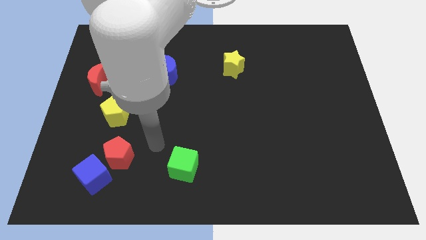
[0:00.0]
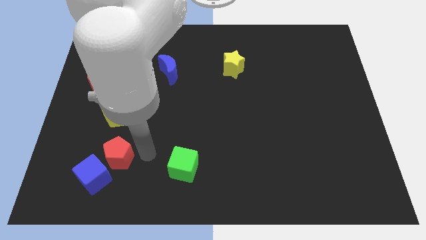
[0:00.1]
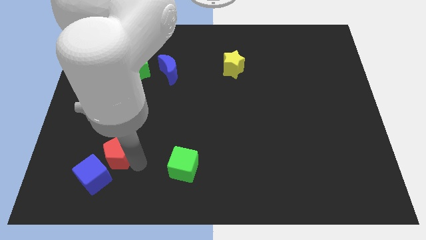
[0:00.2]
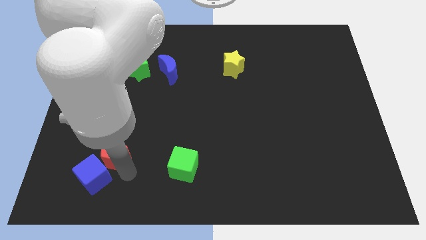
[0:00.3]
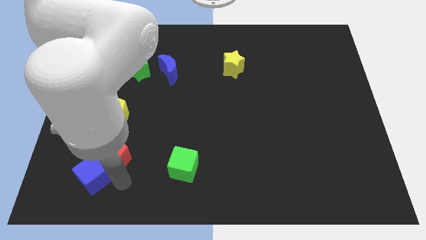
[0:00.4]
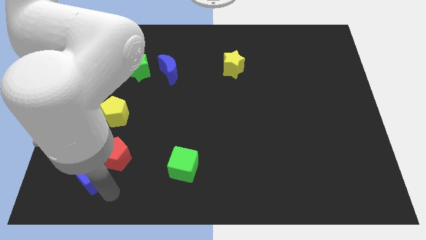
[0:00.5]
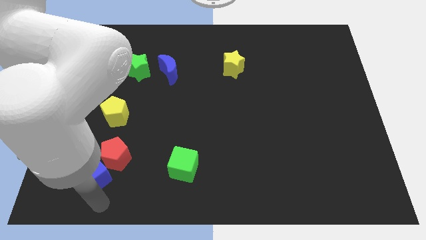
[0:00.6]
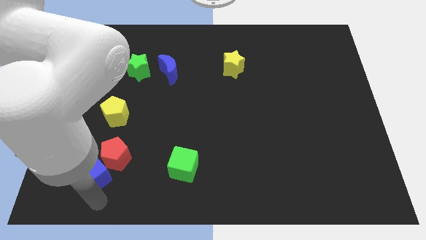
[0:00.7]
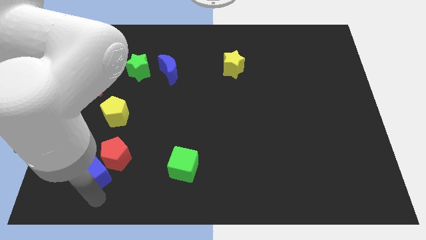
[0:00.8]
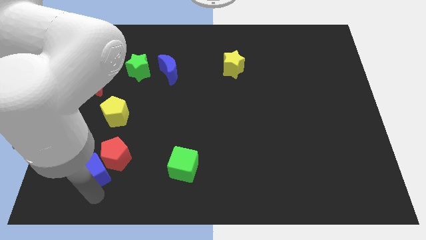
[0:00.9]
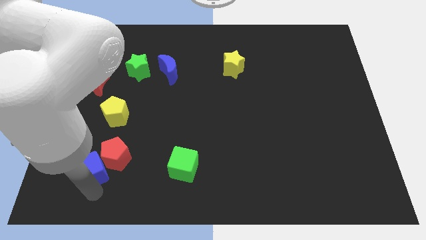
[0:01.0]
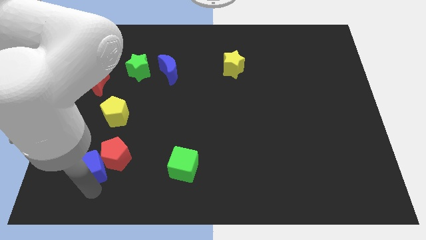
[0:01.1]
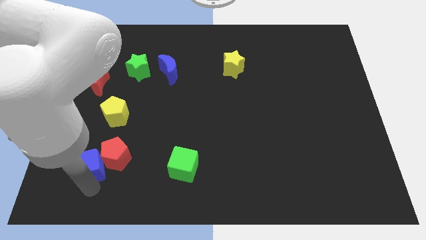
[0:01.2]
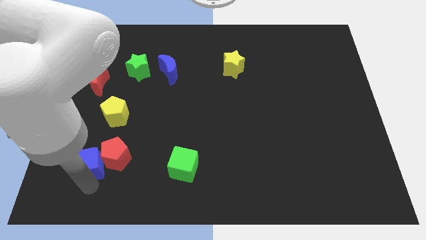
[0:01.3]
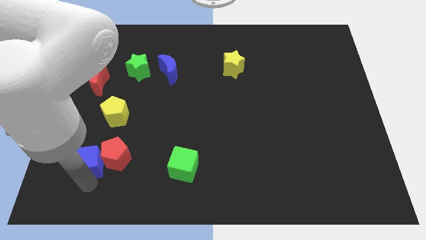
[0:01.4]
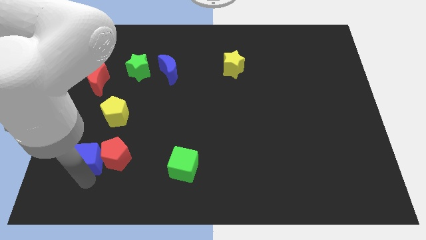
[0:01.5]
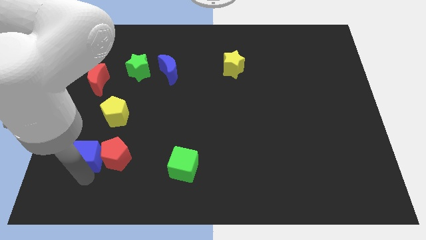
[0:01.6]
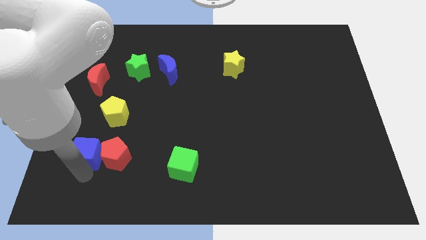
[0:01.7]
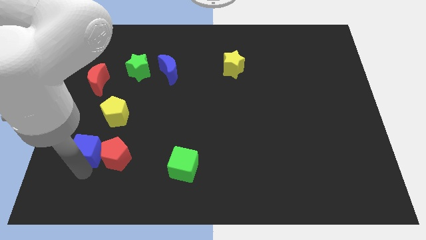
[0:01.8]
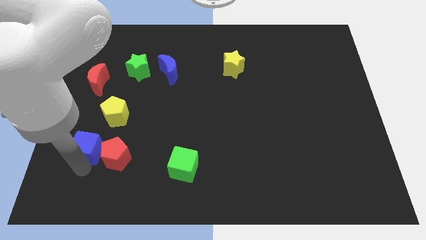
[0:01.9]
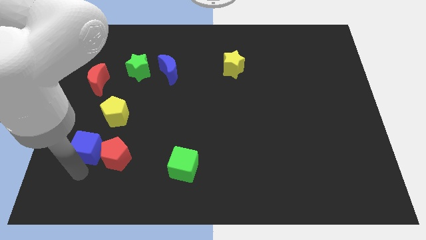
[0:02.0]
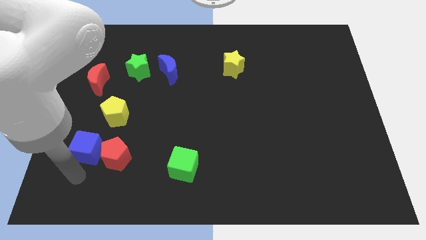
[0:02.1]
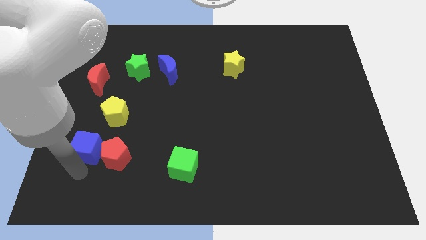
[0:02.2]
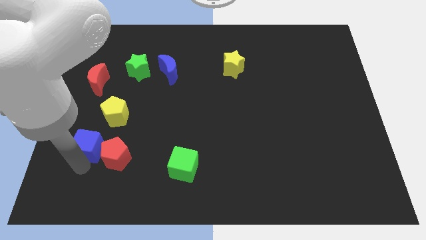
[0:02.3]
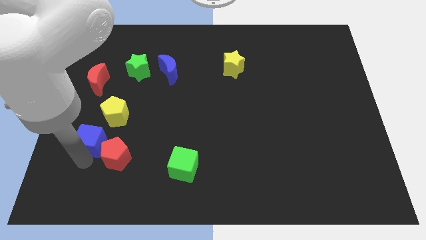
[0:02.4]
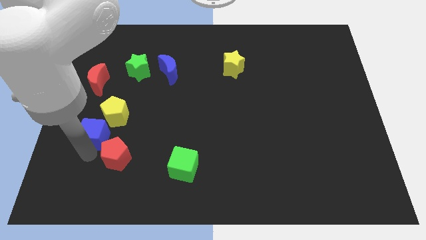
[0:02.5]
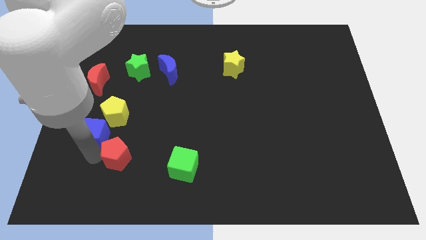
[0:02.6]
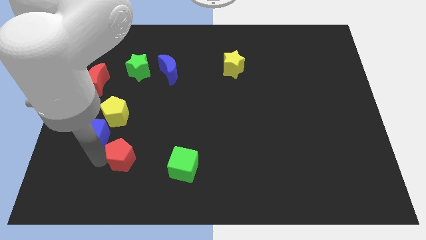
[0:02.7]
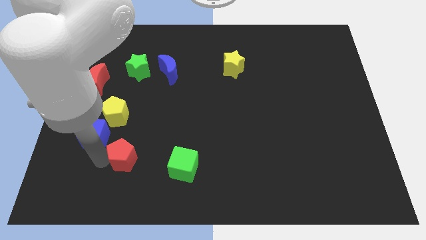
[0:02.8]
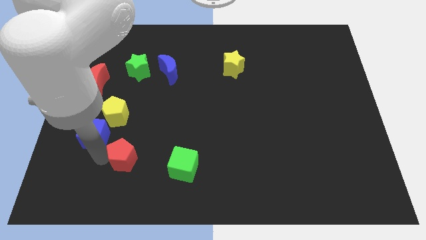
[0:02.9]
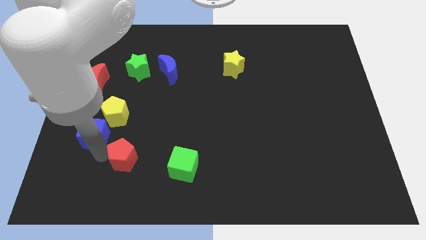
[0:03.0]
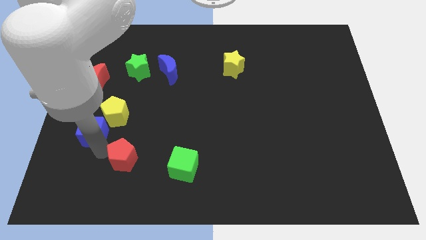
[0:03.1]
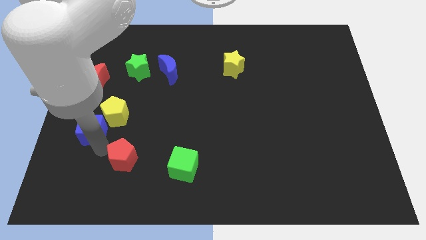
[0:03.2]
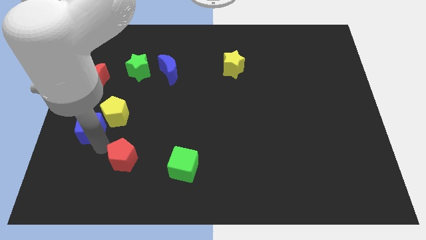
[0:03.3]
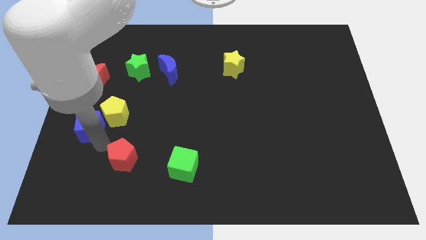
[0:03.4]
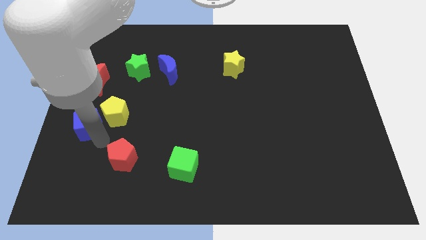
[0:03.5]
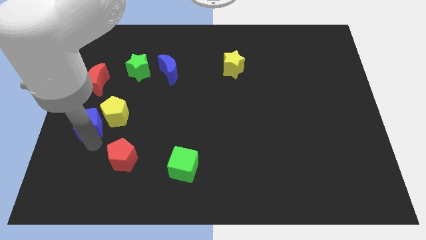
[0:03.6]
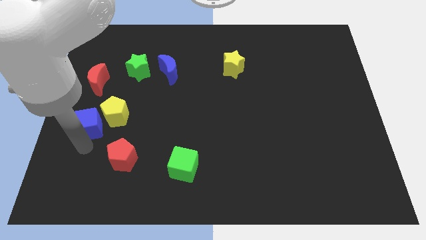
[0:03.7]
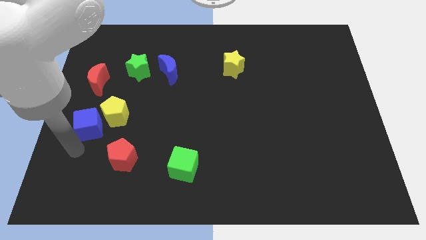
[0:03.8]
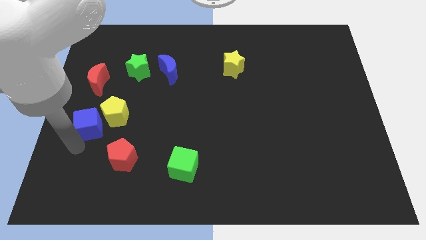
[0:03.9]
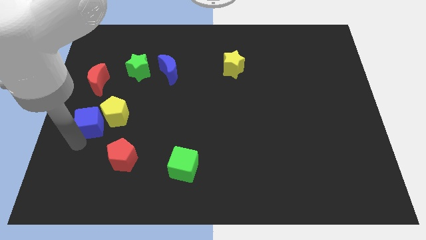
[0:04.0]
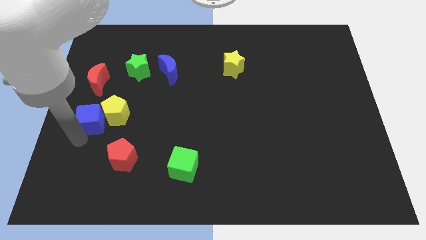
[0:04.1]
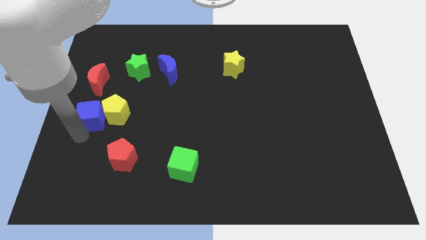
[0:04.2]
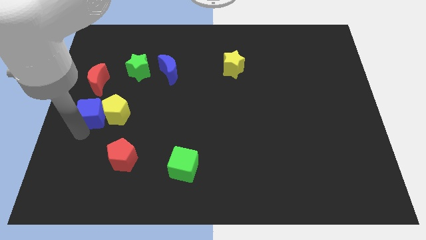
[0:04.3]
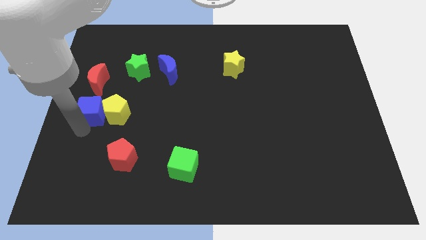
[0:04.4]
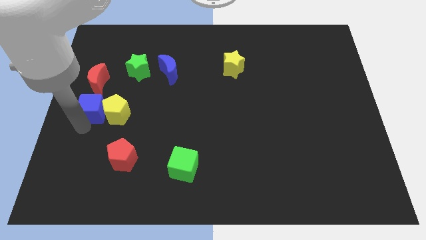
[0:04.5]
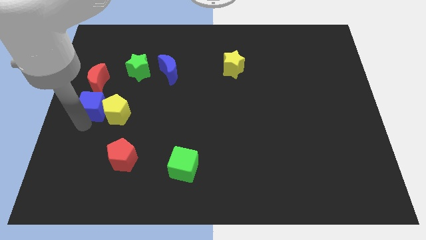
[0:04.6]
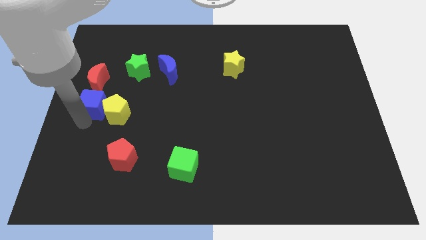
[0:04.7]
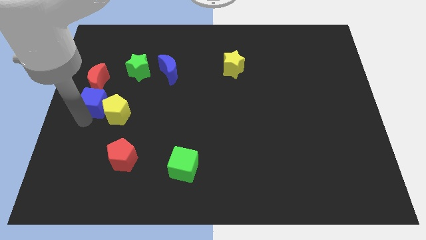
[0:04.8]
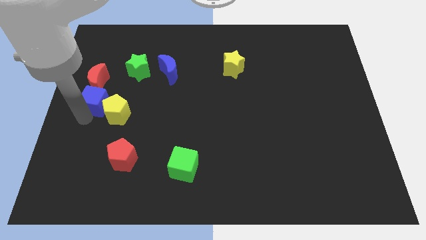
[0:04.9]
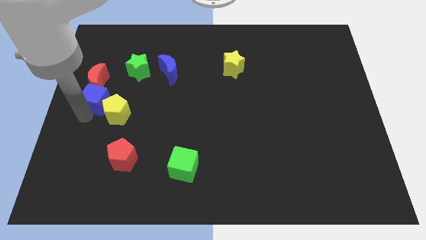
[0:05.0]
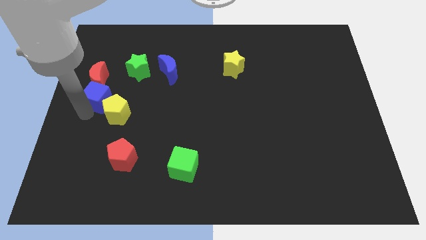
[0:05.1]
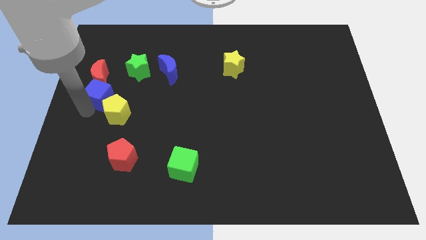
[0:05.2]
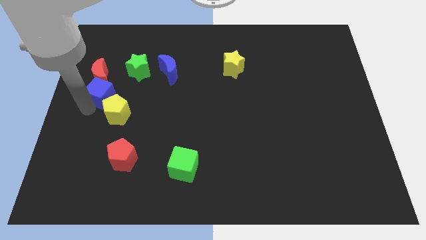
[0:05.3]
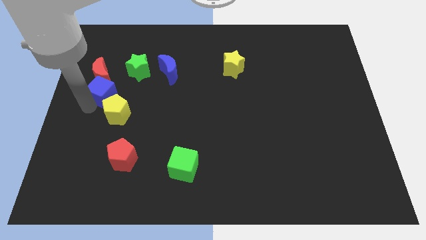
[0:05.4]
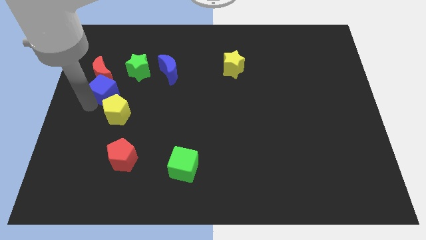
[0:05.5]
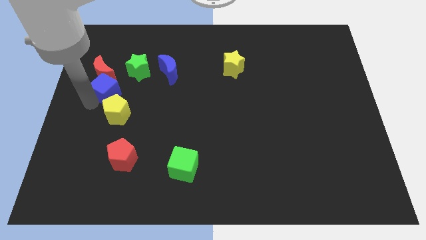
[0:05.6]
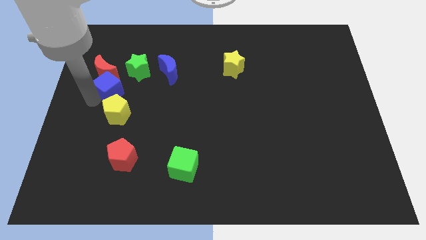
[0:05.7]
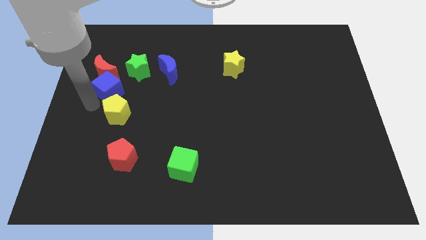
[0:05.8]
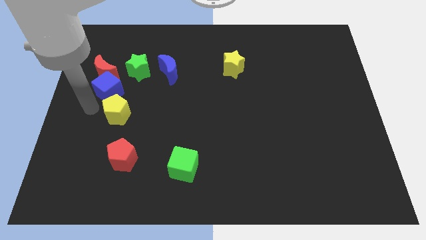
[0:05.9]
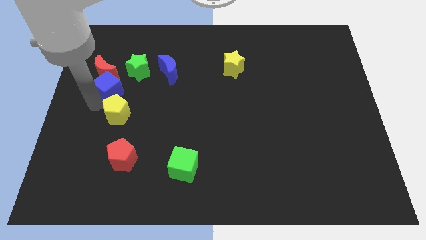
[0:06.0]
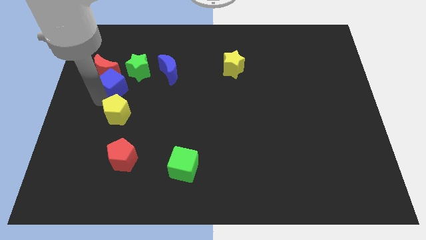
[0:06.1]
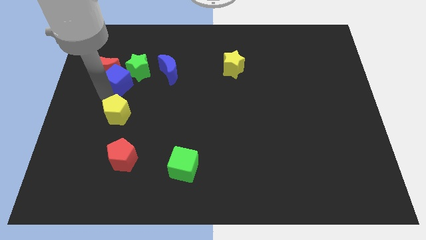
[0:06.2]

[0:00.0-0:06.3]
move the blue cube left of the blue moon

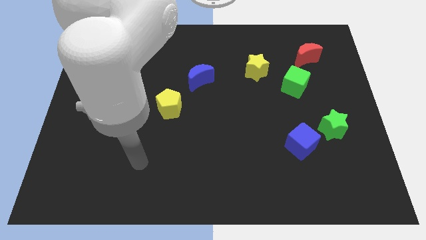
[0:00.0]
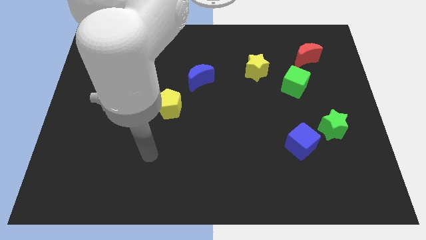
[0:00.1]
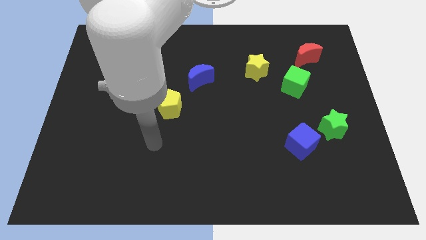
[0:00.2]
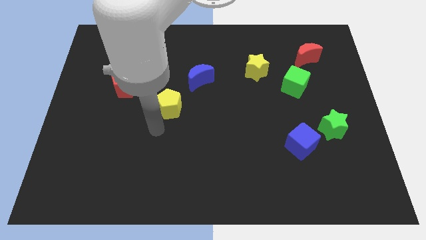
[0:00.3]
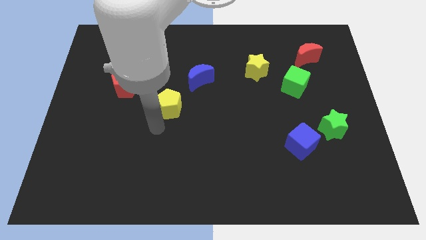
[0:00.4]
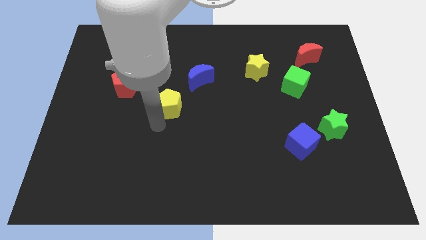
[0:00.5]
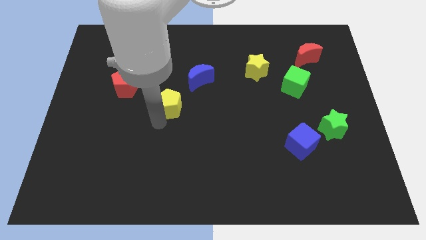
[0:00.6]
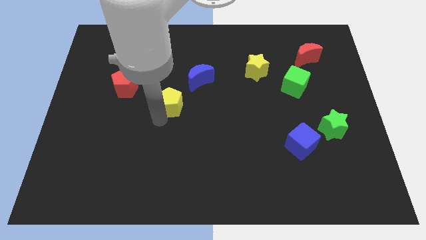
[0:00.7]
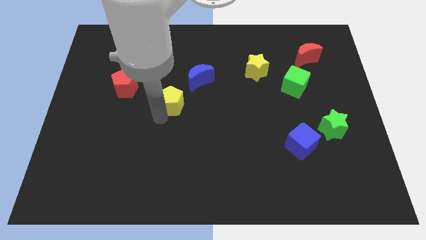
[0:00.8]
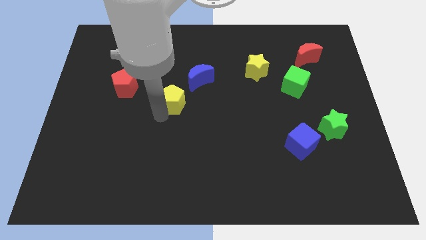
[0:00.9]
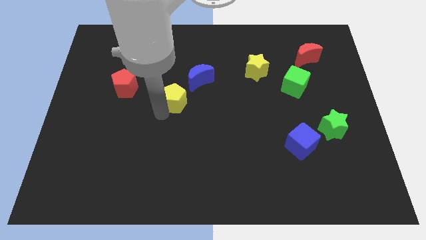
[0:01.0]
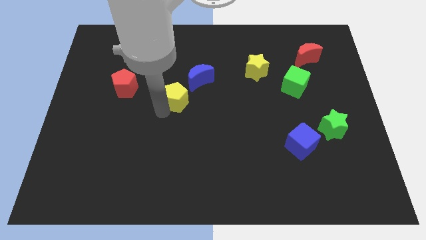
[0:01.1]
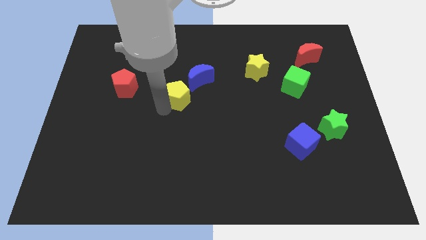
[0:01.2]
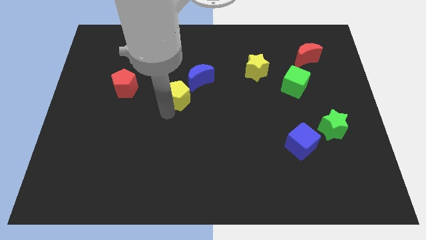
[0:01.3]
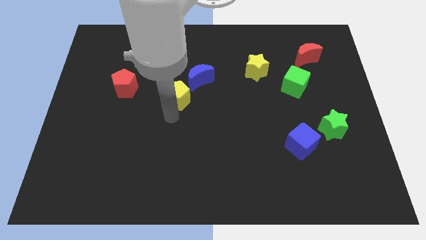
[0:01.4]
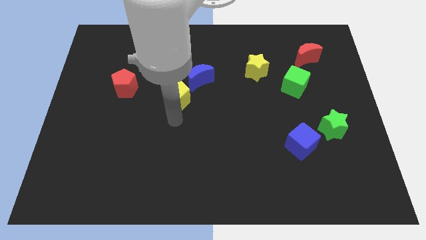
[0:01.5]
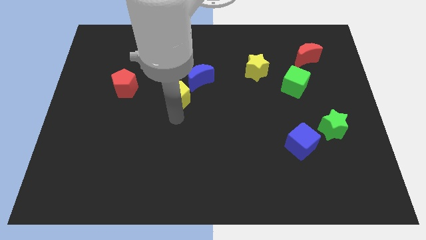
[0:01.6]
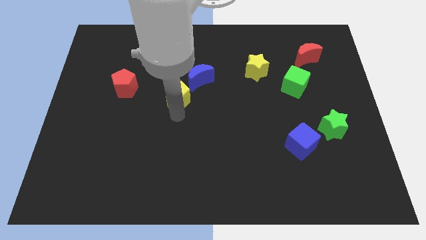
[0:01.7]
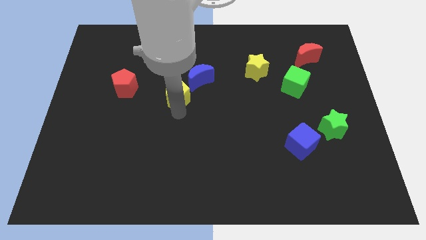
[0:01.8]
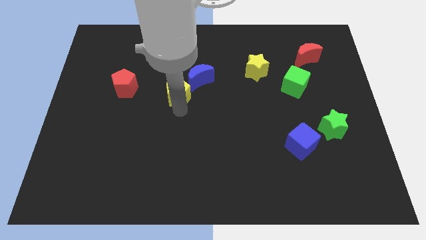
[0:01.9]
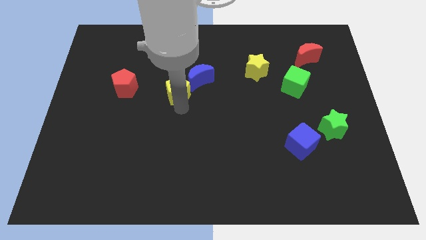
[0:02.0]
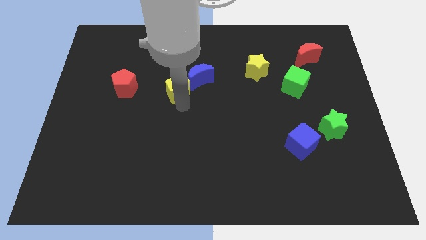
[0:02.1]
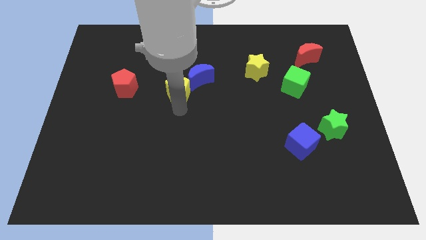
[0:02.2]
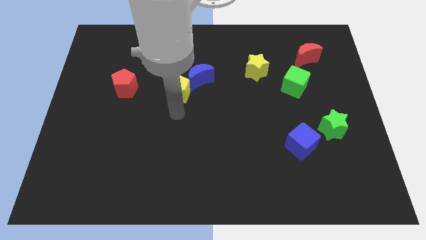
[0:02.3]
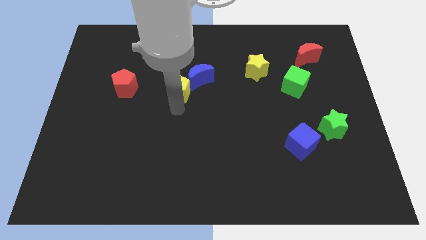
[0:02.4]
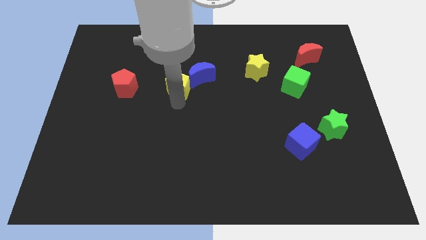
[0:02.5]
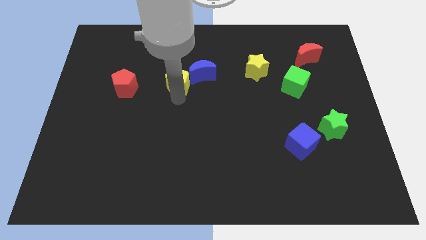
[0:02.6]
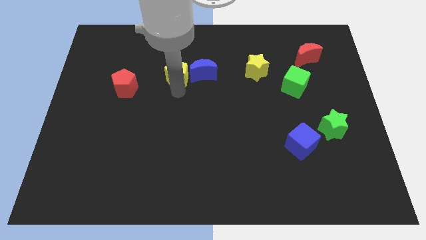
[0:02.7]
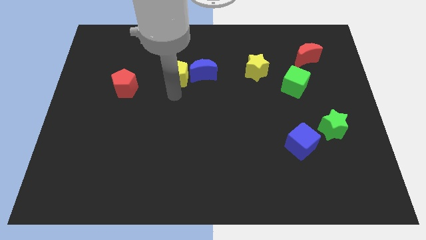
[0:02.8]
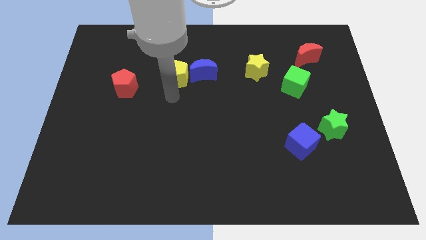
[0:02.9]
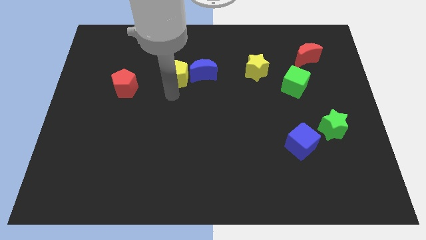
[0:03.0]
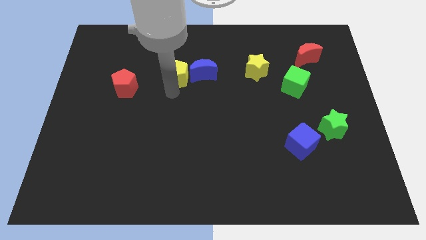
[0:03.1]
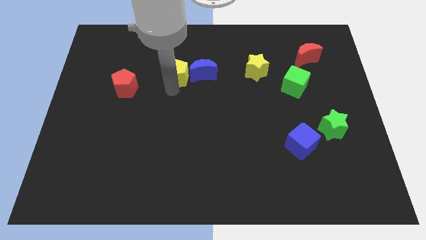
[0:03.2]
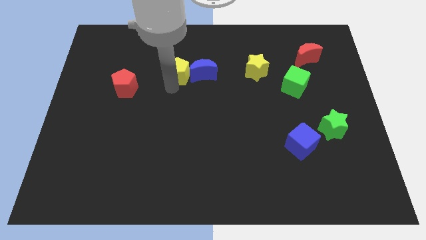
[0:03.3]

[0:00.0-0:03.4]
push the yellow pentagon diagonally up and to the left of the blue moon
